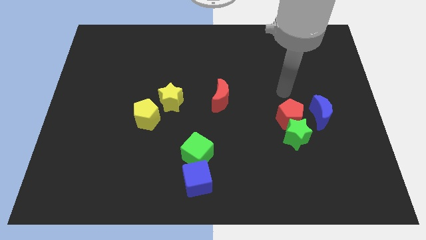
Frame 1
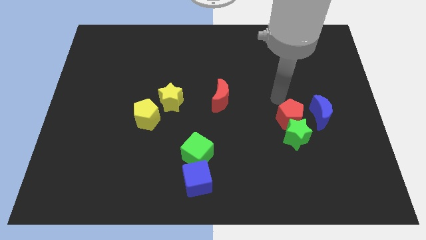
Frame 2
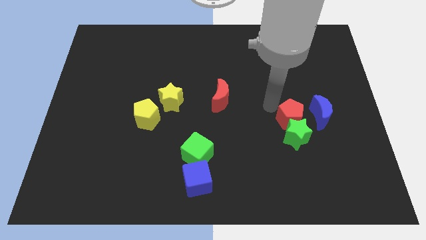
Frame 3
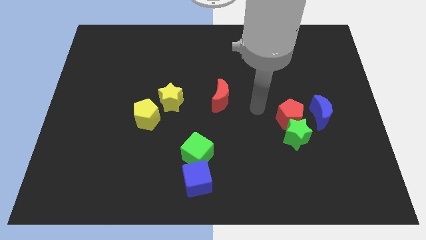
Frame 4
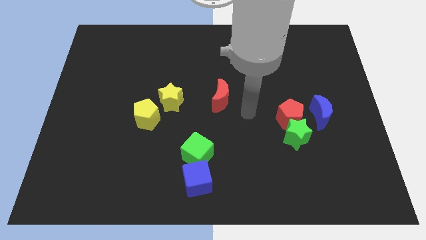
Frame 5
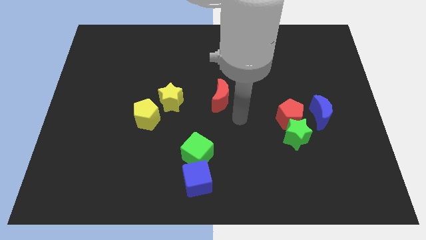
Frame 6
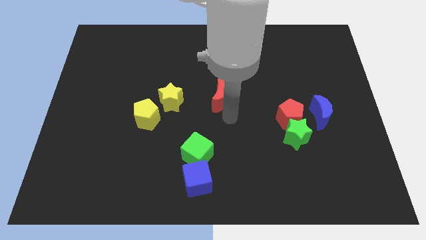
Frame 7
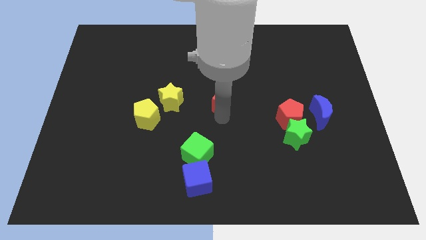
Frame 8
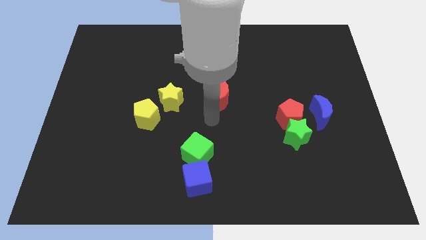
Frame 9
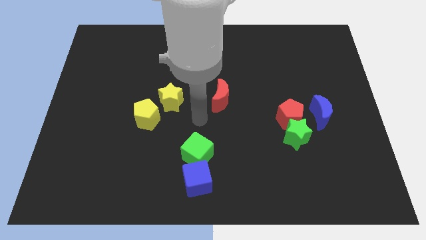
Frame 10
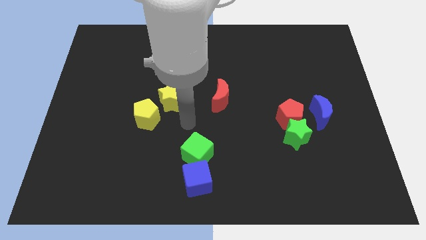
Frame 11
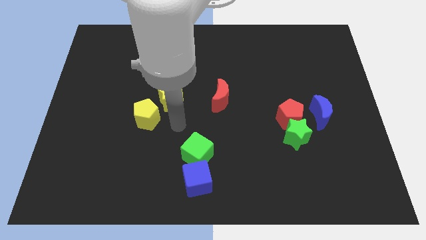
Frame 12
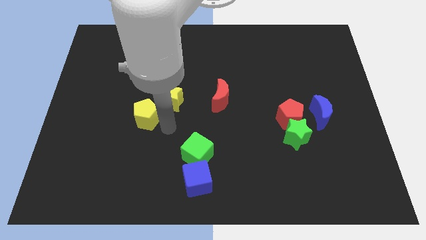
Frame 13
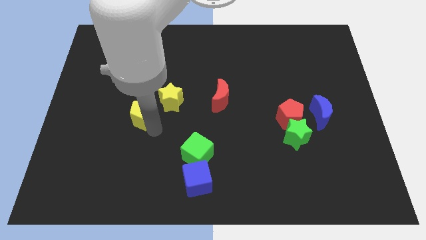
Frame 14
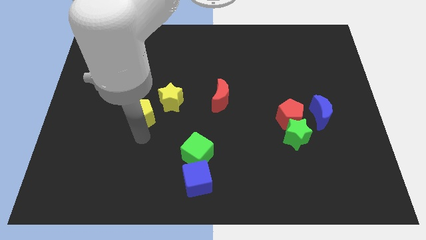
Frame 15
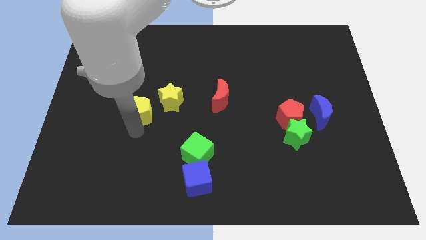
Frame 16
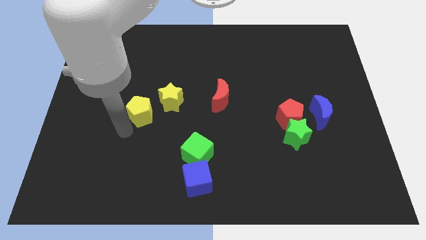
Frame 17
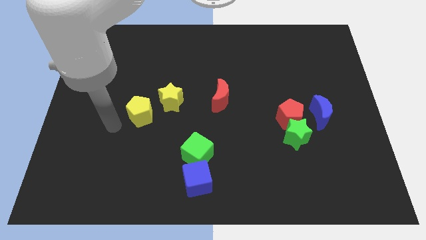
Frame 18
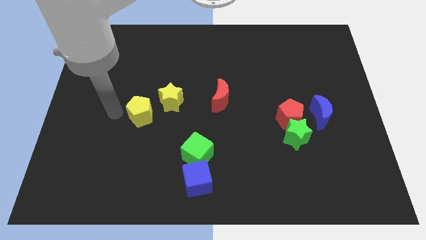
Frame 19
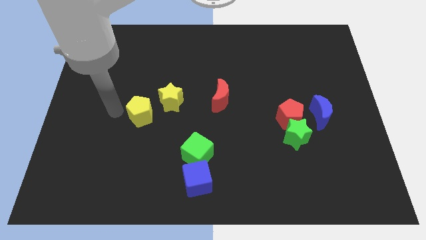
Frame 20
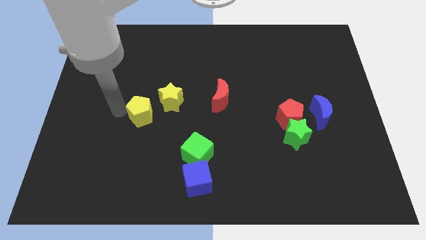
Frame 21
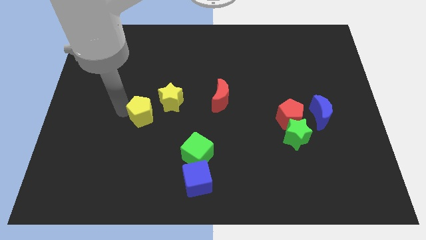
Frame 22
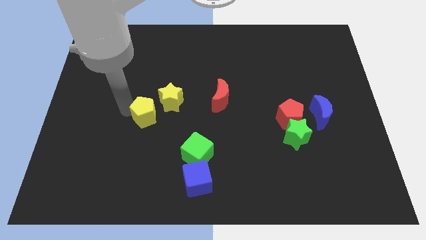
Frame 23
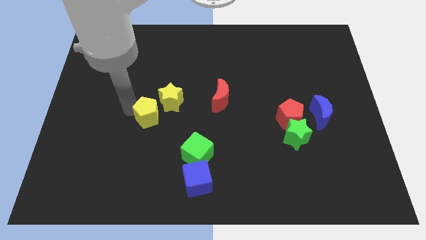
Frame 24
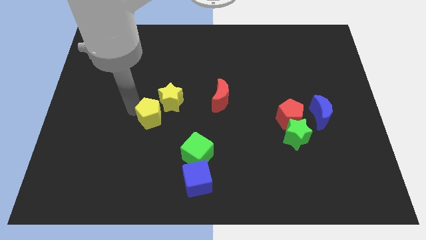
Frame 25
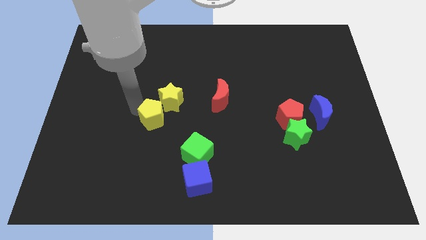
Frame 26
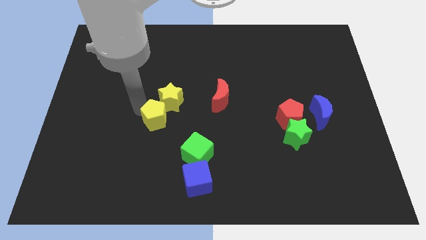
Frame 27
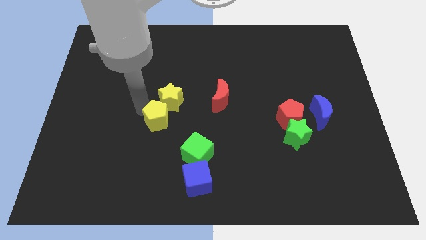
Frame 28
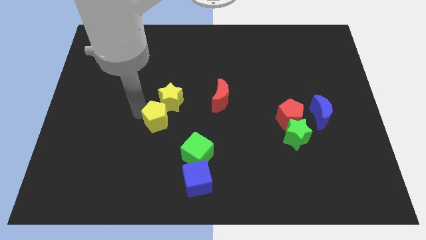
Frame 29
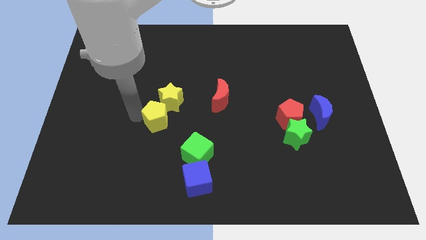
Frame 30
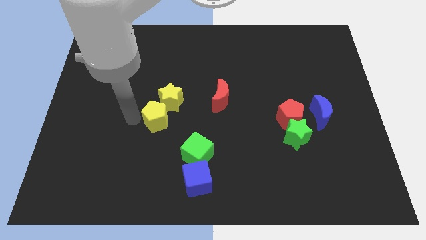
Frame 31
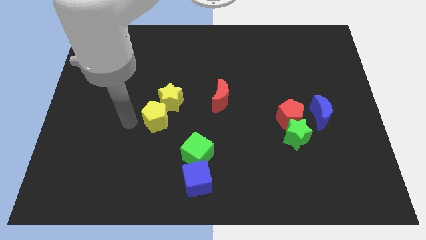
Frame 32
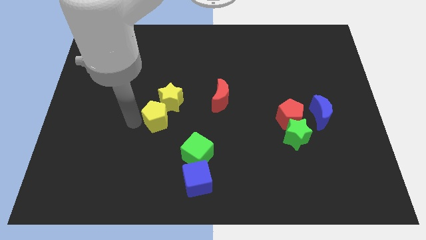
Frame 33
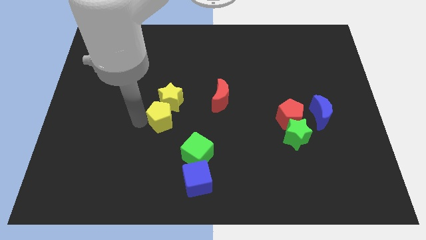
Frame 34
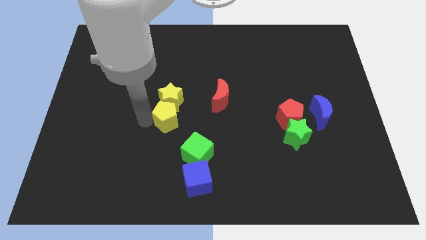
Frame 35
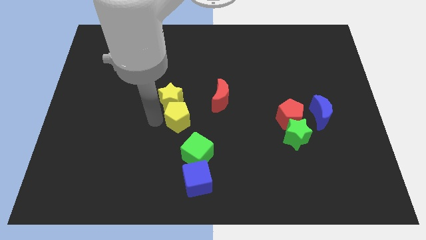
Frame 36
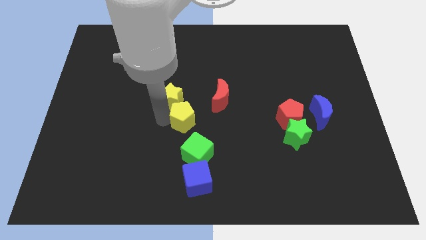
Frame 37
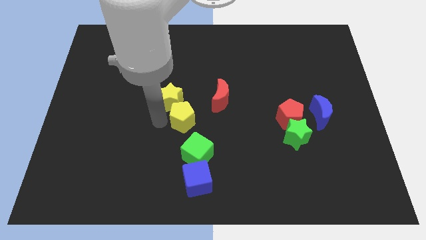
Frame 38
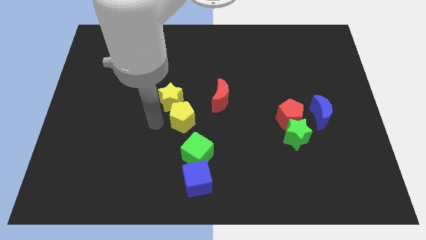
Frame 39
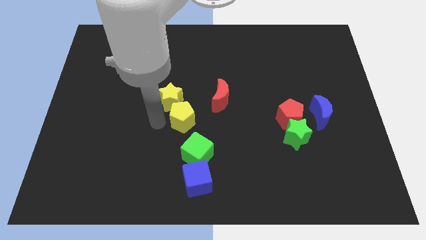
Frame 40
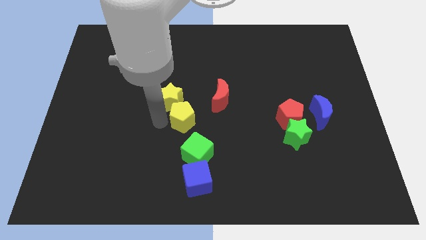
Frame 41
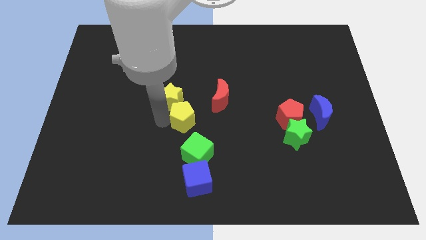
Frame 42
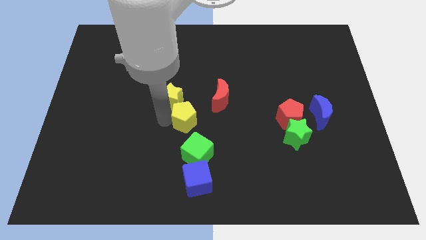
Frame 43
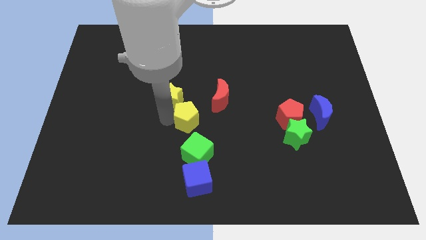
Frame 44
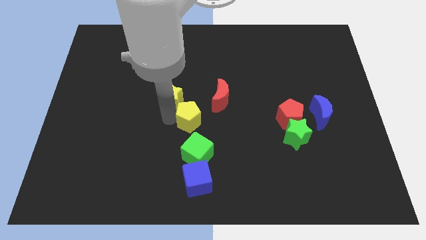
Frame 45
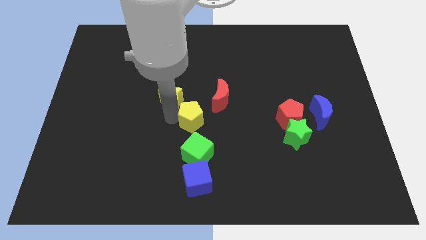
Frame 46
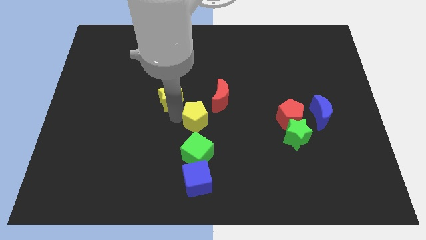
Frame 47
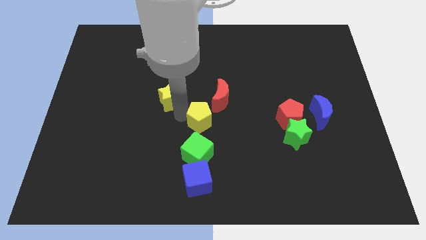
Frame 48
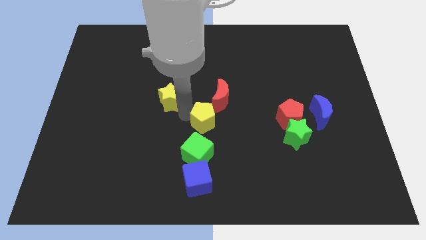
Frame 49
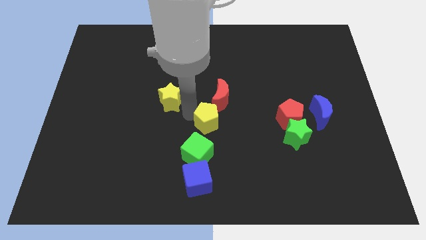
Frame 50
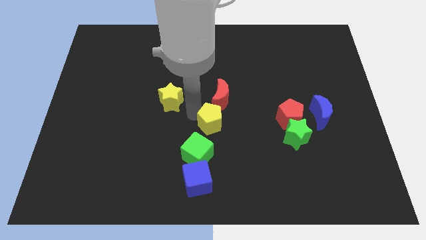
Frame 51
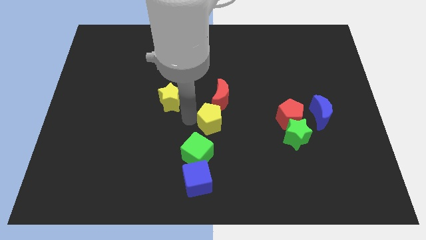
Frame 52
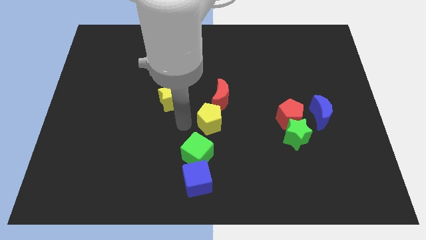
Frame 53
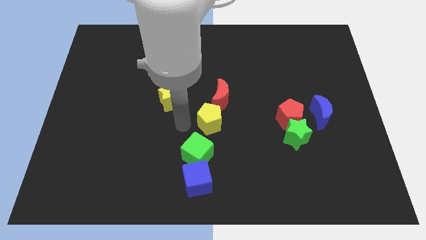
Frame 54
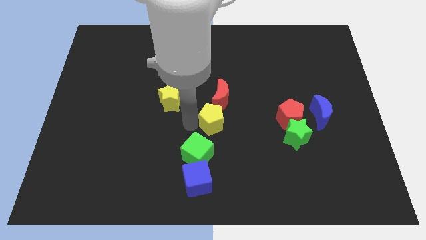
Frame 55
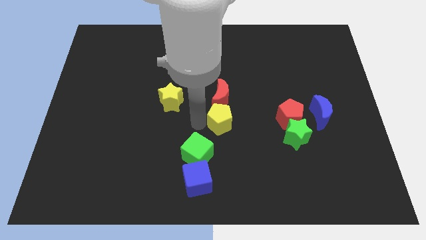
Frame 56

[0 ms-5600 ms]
push the yellow pentagon just left of the red pentagon

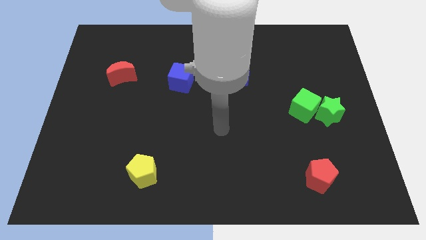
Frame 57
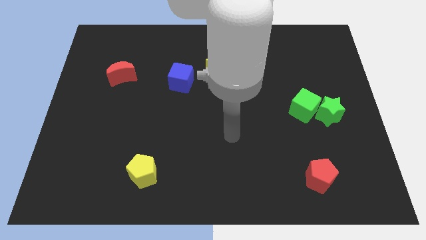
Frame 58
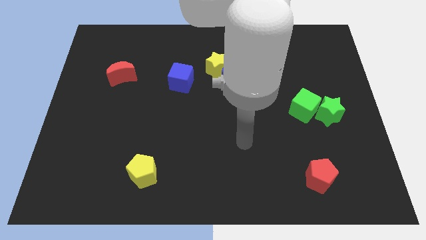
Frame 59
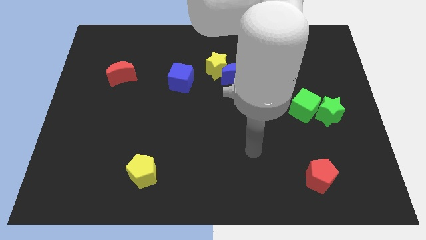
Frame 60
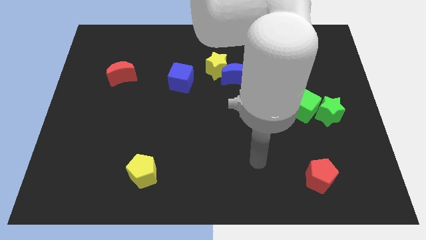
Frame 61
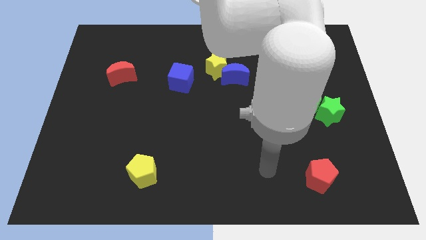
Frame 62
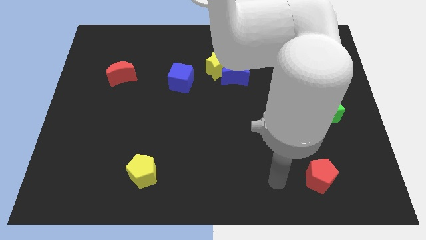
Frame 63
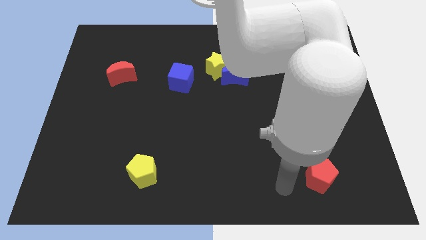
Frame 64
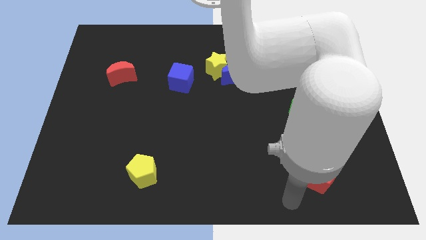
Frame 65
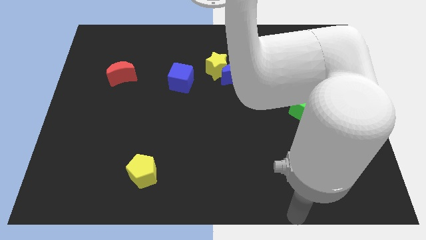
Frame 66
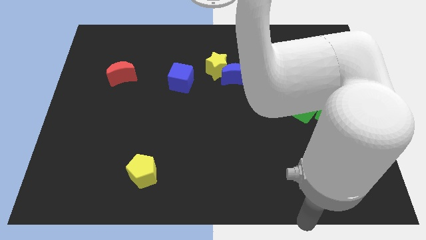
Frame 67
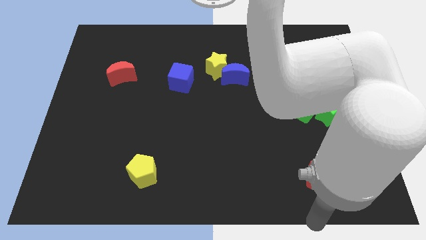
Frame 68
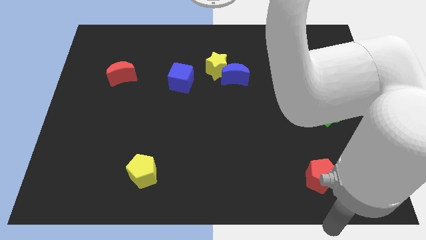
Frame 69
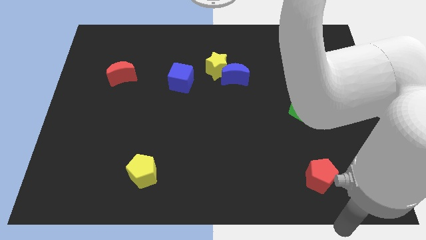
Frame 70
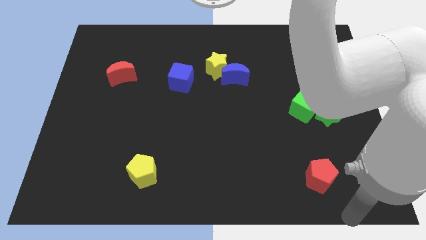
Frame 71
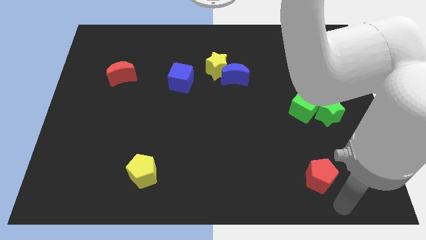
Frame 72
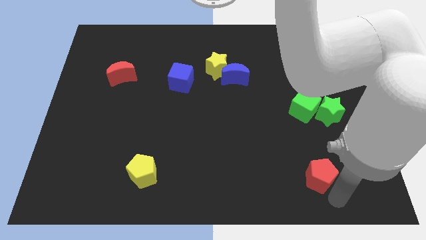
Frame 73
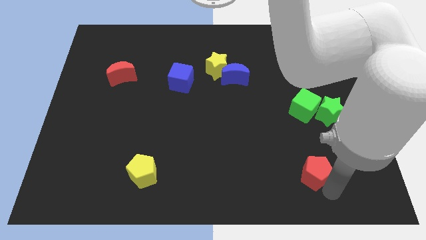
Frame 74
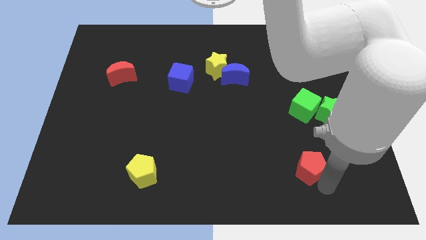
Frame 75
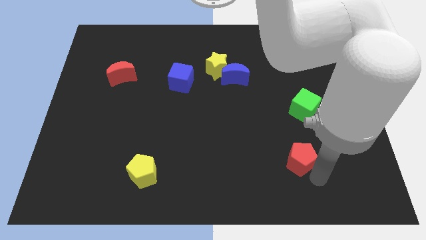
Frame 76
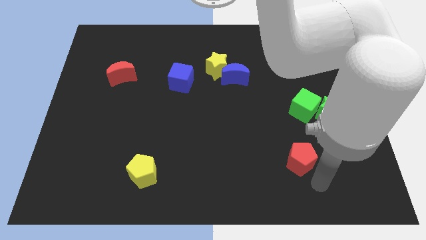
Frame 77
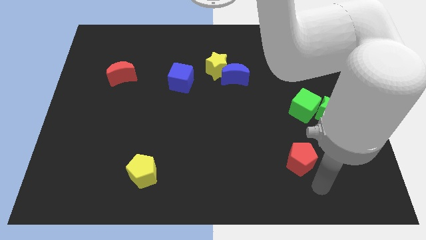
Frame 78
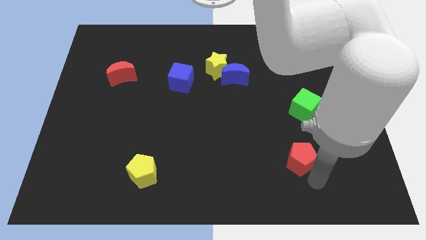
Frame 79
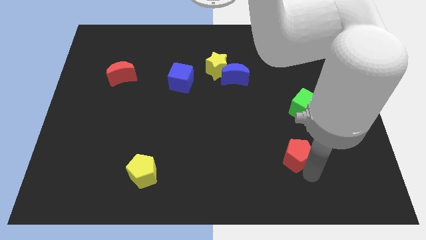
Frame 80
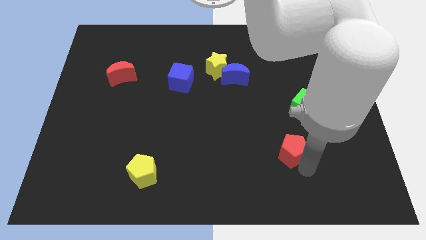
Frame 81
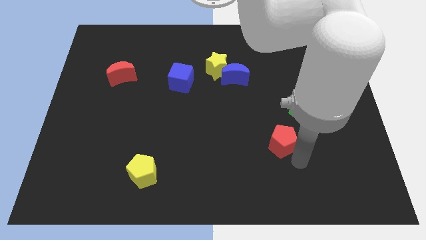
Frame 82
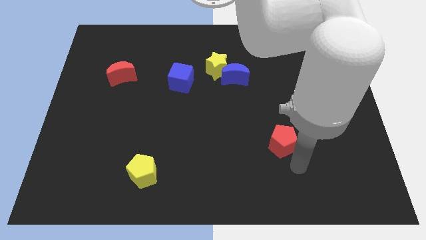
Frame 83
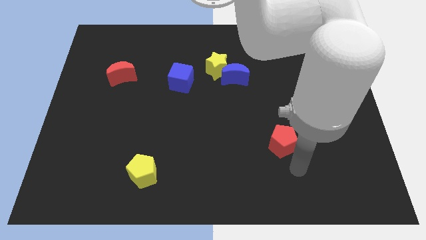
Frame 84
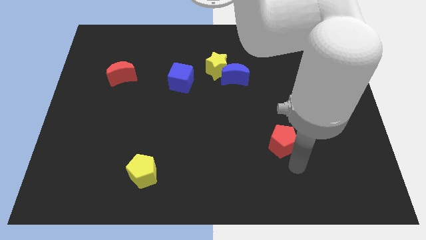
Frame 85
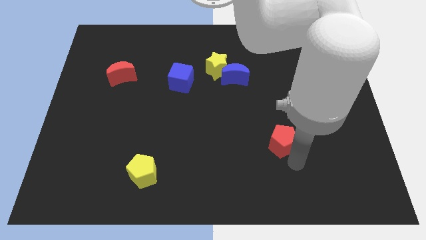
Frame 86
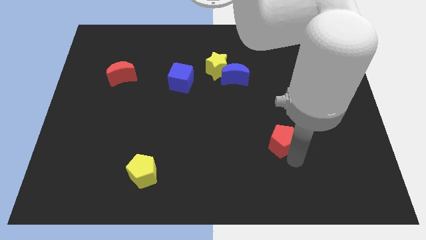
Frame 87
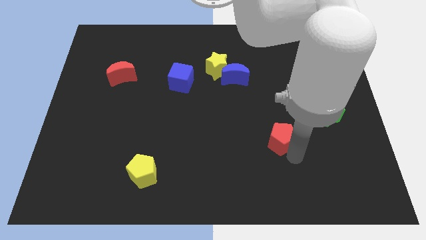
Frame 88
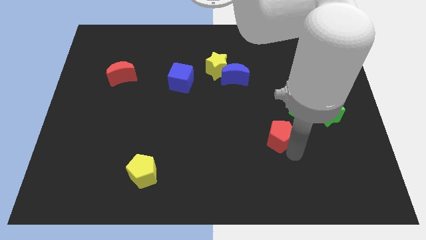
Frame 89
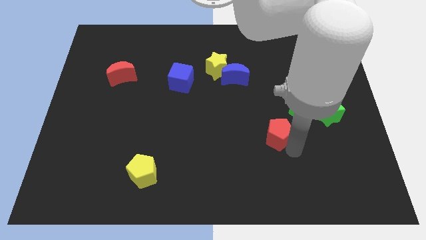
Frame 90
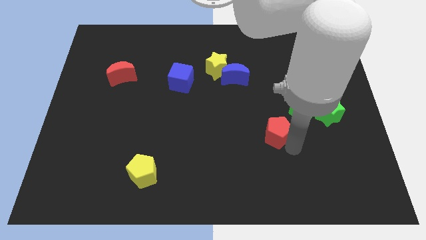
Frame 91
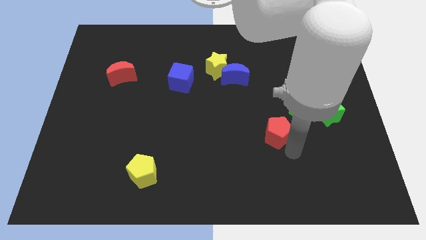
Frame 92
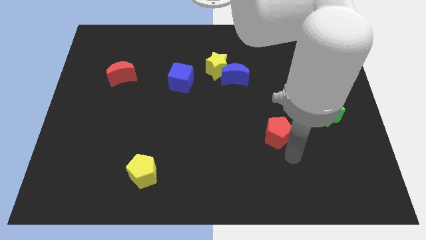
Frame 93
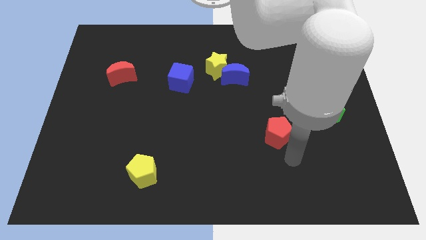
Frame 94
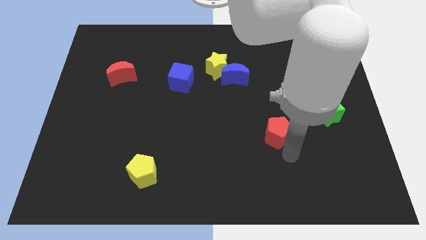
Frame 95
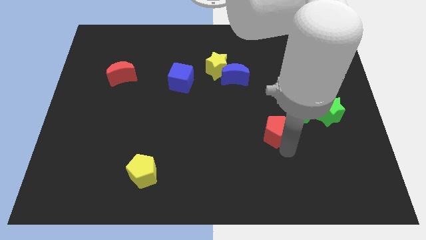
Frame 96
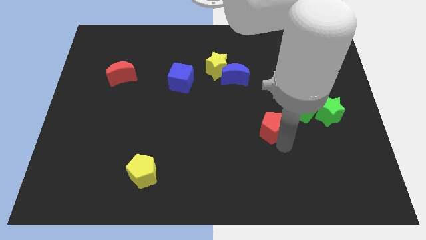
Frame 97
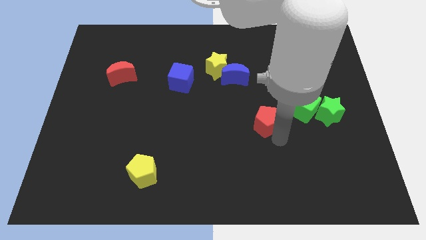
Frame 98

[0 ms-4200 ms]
move the red pentagon to the left of the green cube
